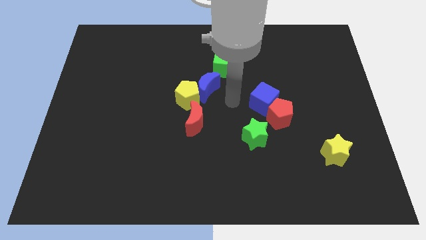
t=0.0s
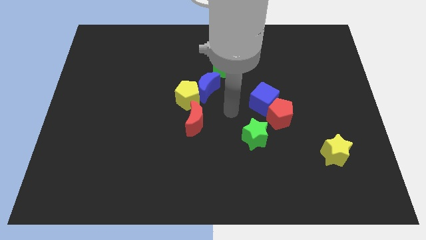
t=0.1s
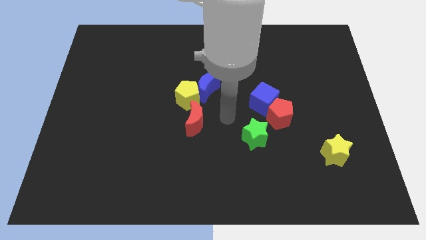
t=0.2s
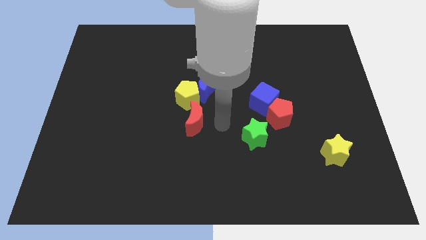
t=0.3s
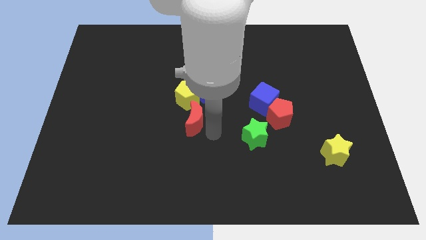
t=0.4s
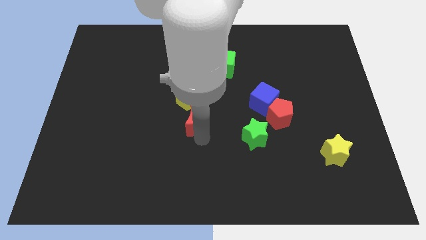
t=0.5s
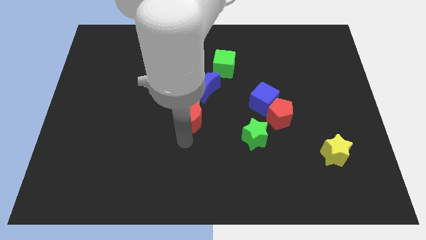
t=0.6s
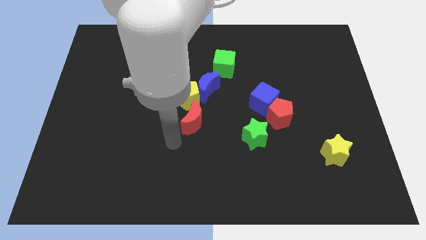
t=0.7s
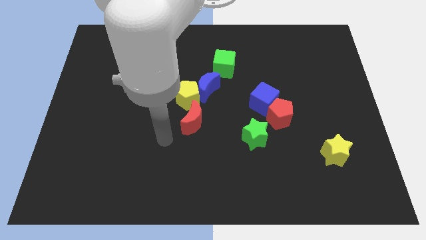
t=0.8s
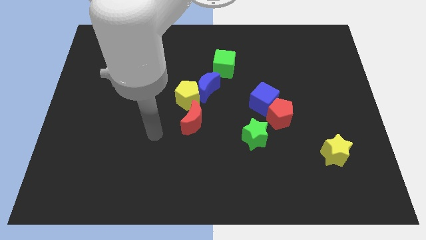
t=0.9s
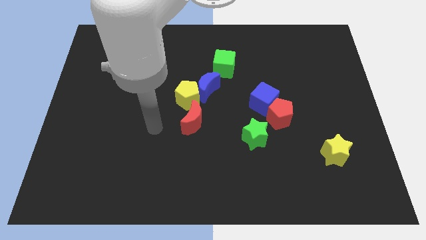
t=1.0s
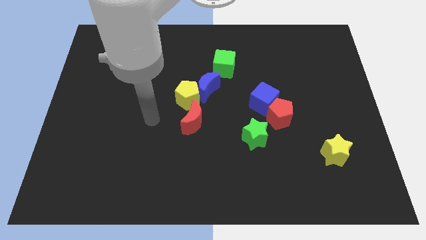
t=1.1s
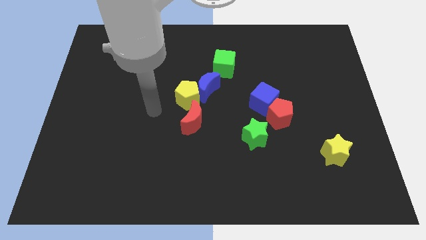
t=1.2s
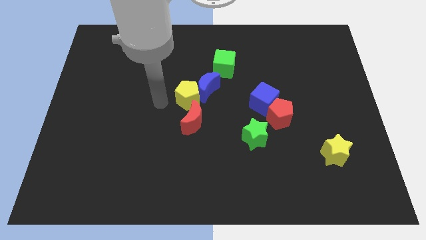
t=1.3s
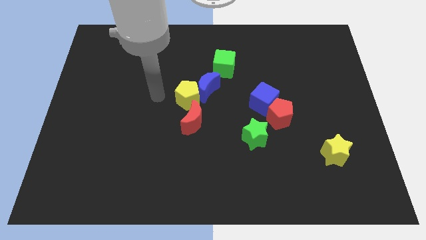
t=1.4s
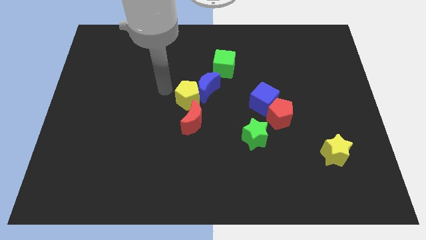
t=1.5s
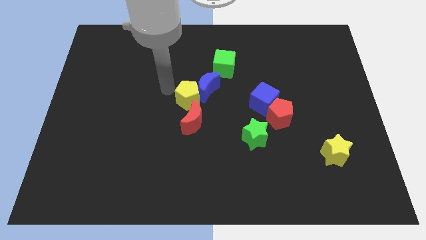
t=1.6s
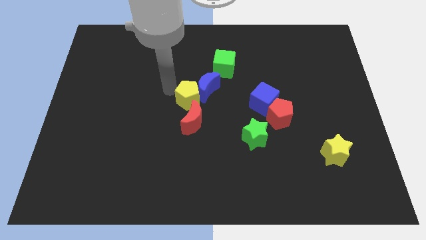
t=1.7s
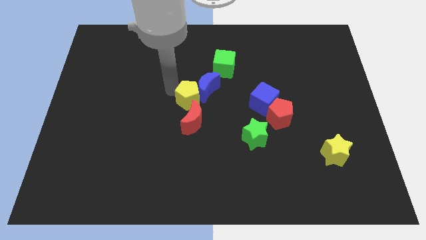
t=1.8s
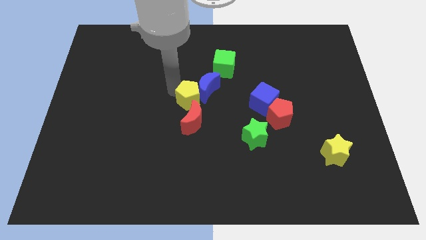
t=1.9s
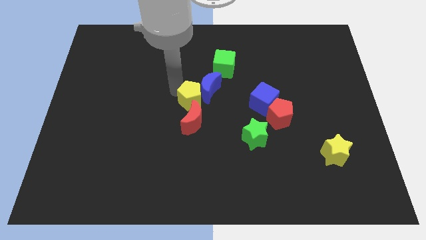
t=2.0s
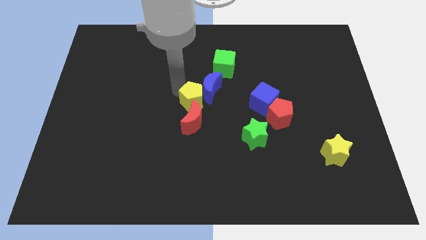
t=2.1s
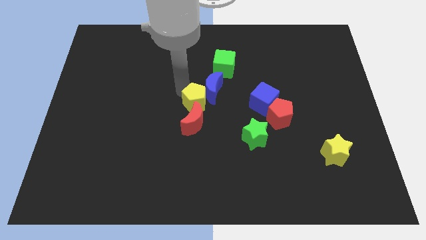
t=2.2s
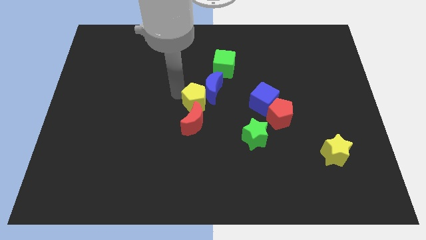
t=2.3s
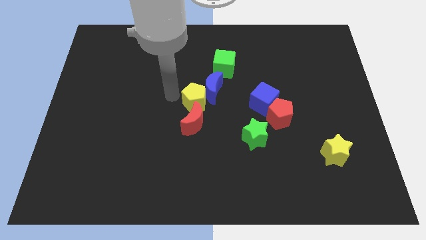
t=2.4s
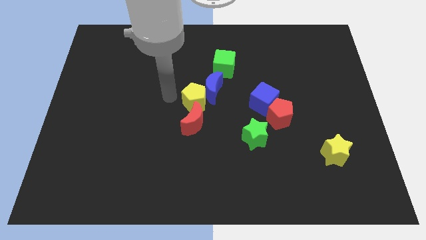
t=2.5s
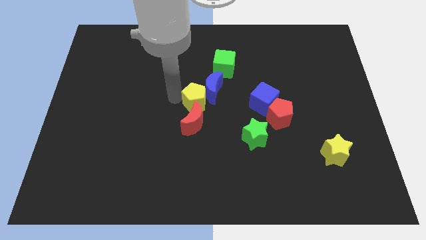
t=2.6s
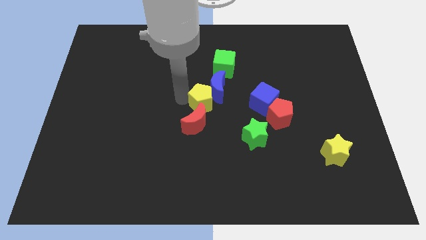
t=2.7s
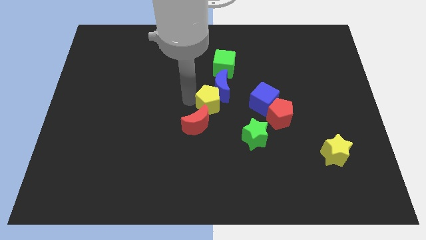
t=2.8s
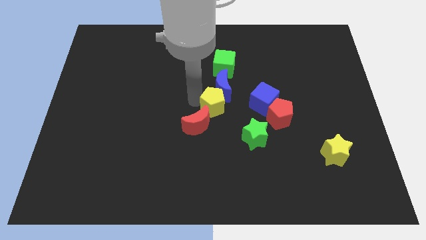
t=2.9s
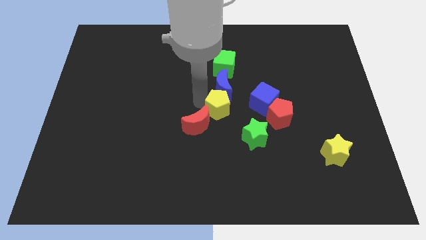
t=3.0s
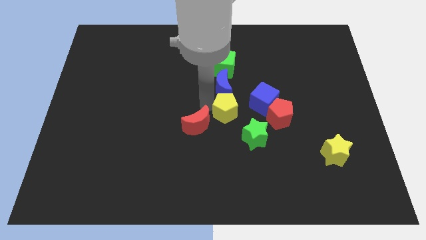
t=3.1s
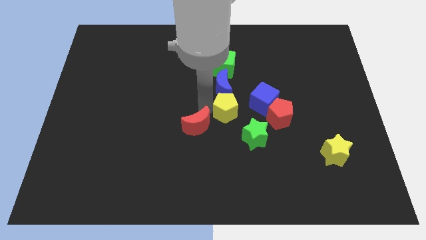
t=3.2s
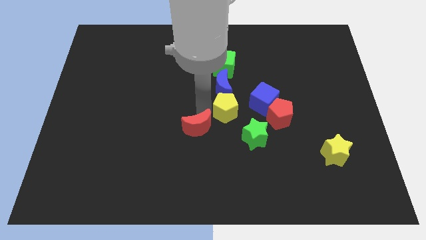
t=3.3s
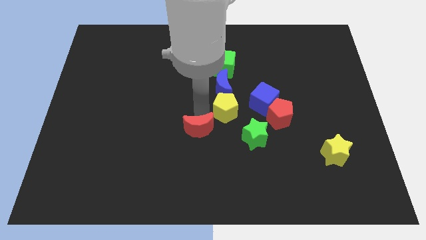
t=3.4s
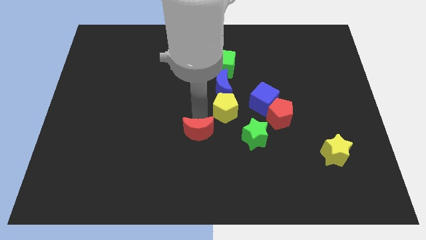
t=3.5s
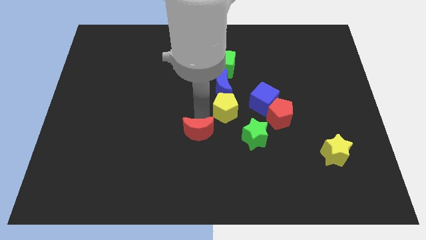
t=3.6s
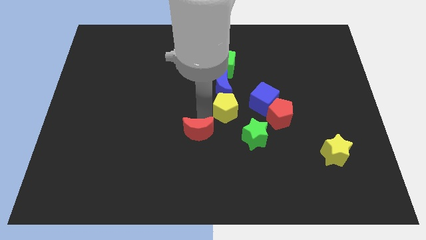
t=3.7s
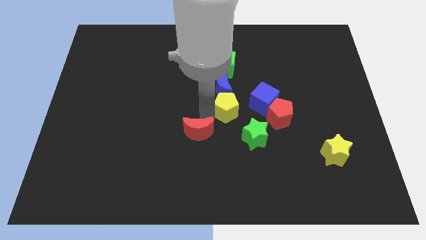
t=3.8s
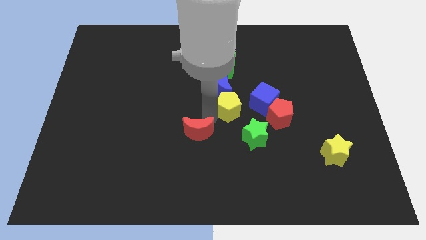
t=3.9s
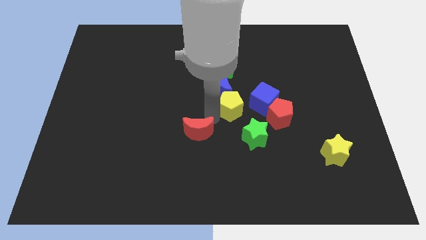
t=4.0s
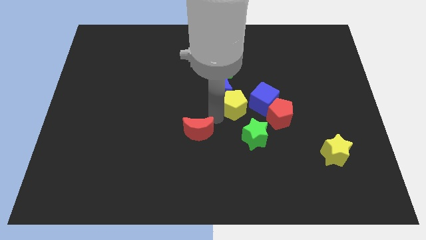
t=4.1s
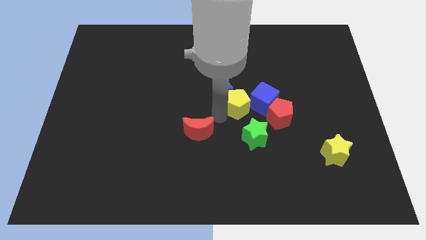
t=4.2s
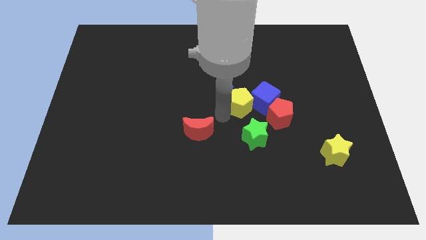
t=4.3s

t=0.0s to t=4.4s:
move the yellow pentagon next to the blue cube

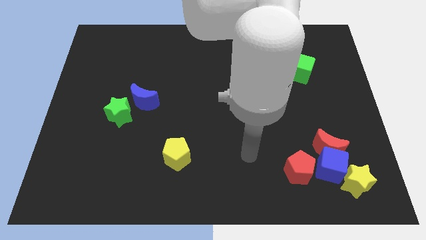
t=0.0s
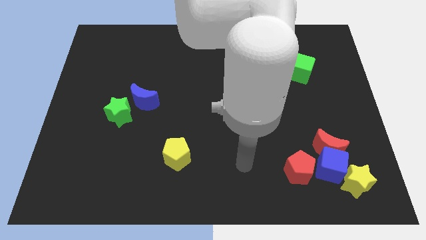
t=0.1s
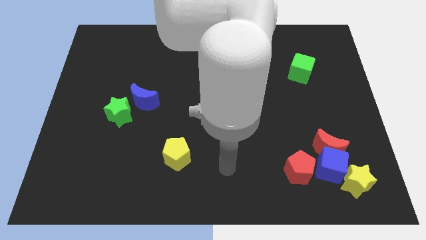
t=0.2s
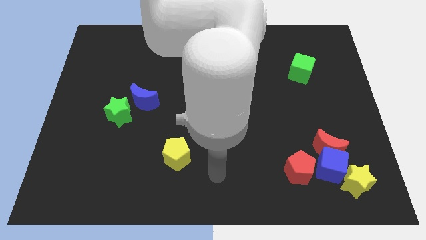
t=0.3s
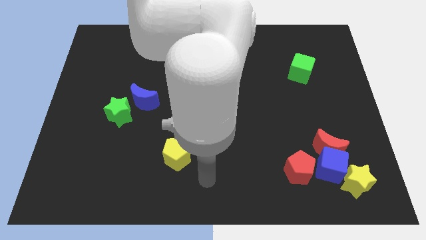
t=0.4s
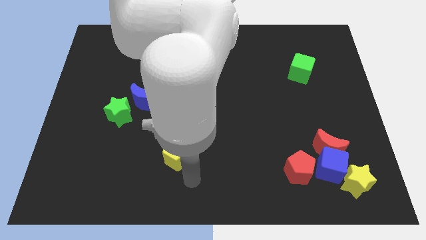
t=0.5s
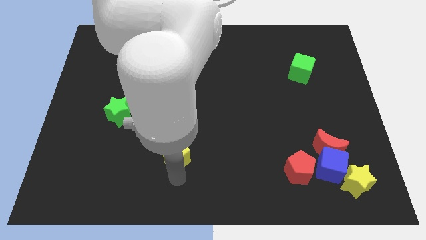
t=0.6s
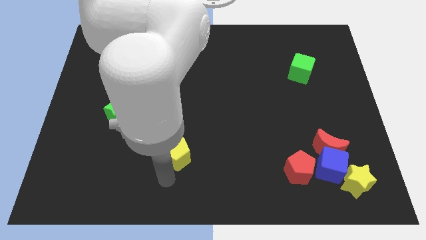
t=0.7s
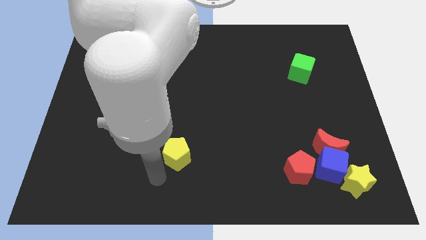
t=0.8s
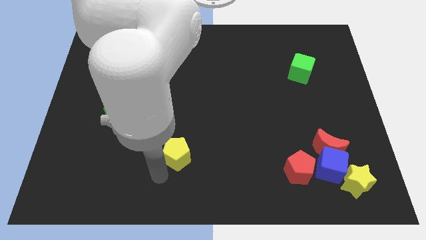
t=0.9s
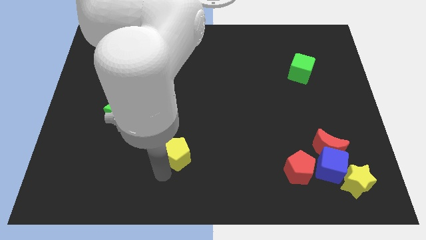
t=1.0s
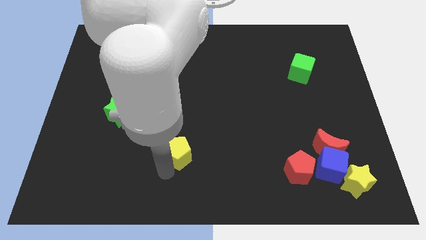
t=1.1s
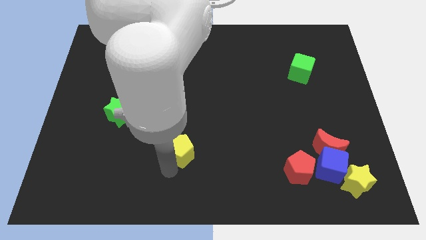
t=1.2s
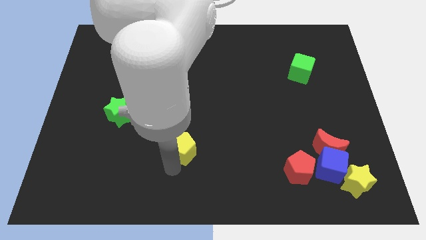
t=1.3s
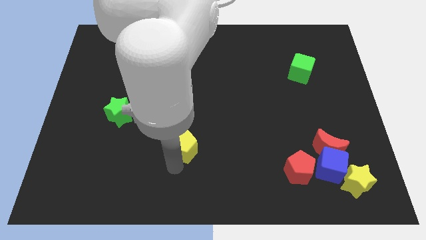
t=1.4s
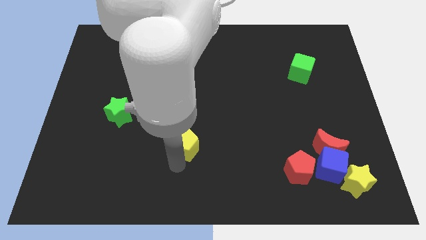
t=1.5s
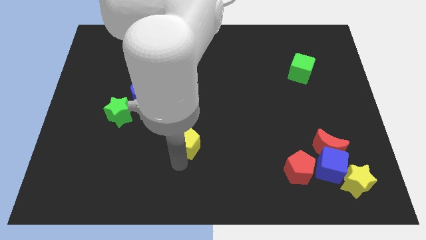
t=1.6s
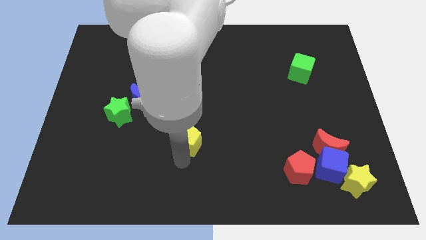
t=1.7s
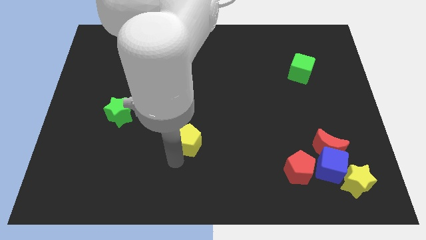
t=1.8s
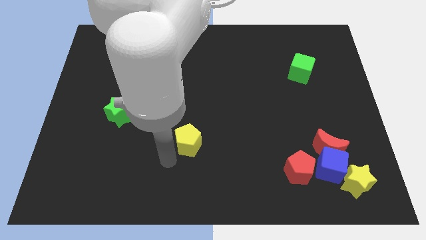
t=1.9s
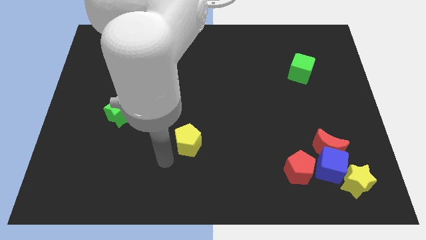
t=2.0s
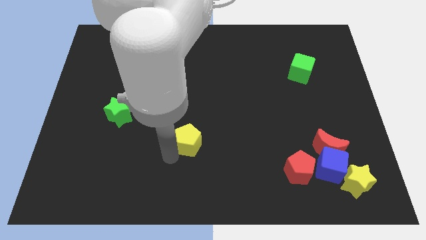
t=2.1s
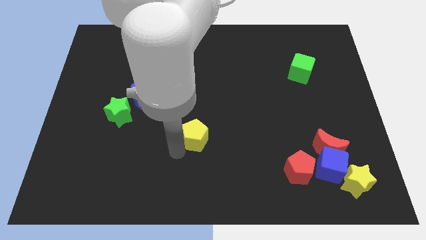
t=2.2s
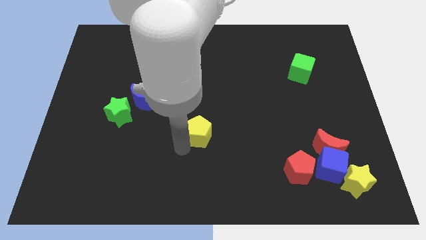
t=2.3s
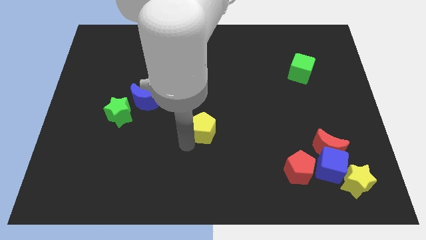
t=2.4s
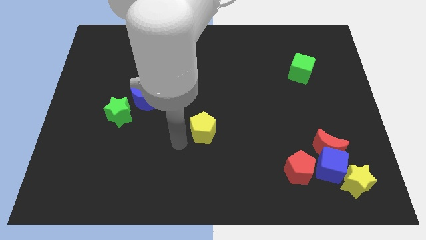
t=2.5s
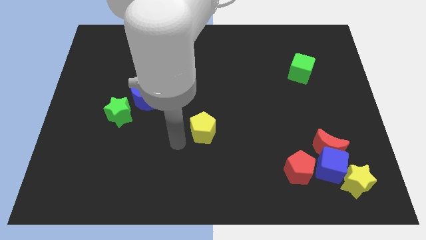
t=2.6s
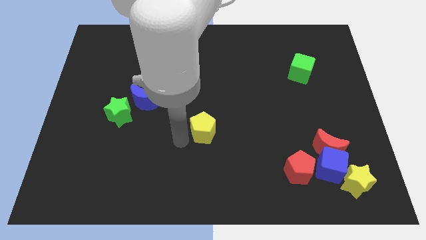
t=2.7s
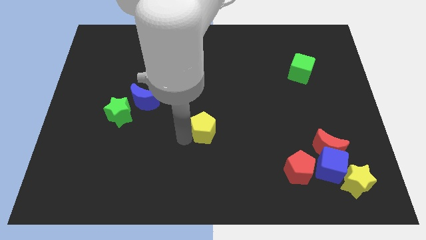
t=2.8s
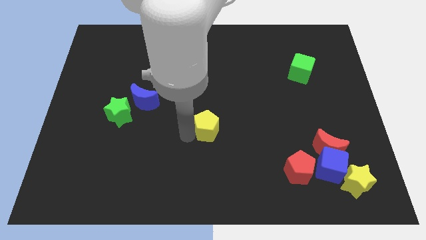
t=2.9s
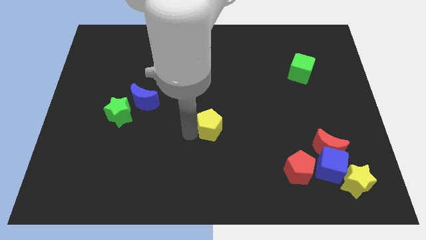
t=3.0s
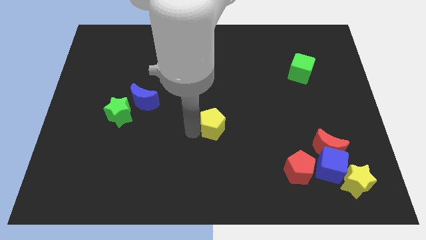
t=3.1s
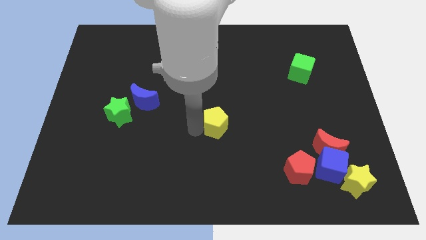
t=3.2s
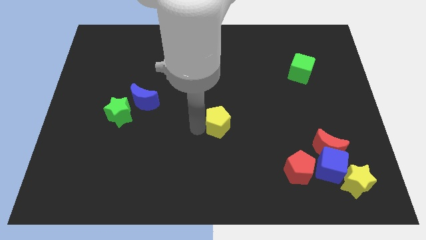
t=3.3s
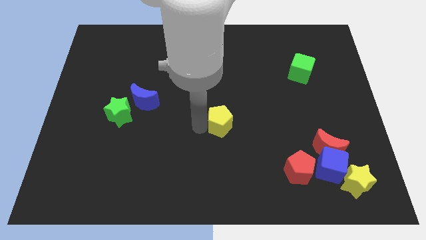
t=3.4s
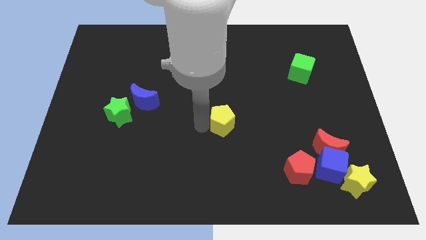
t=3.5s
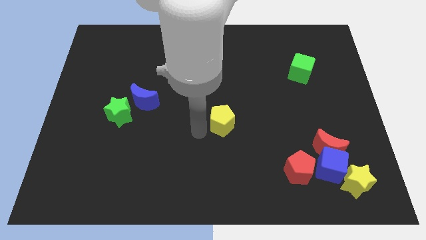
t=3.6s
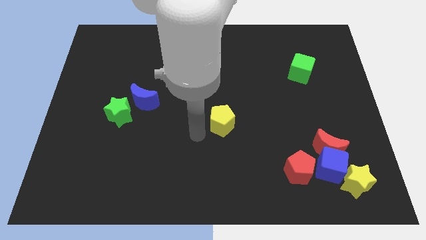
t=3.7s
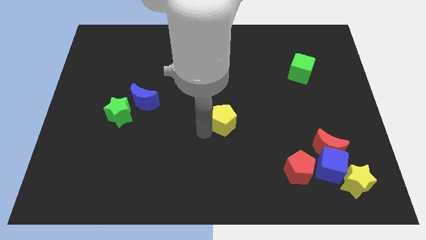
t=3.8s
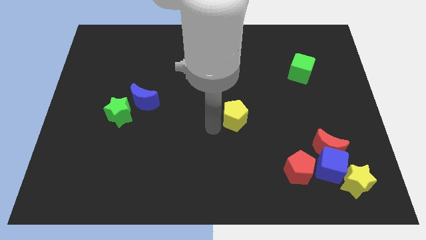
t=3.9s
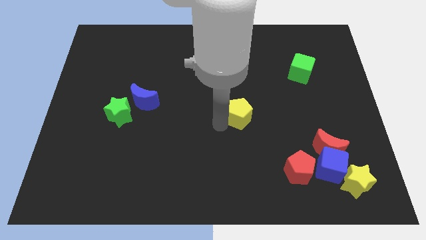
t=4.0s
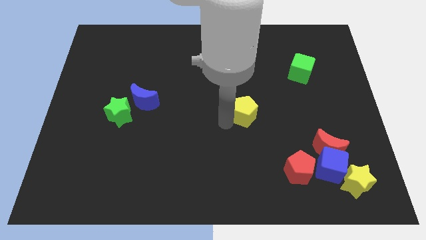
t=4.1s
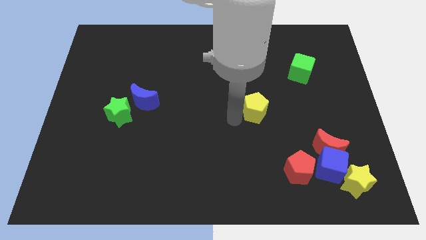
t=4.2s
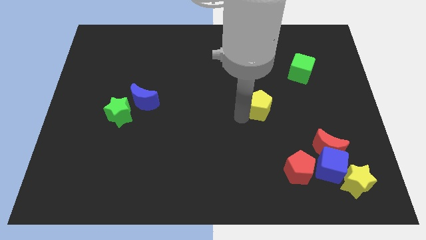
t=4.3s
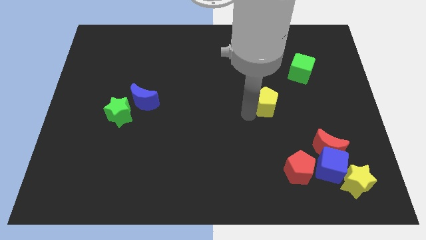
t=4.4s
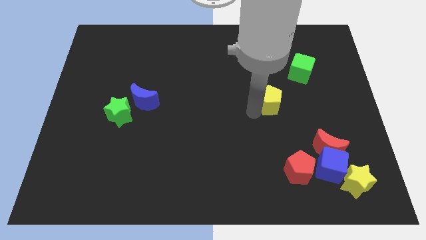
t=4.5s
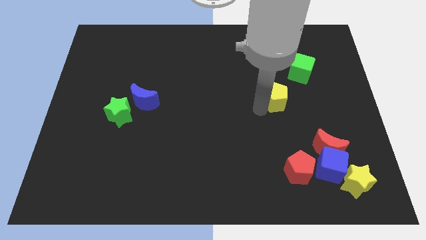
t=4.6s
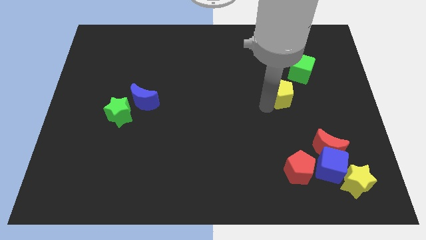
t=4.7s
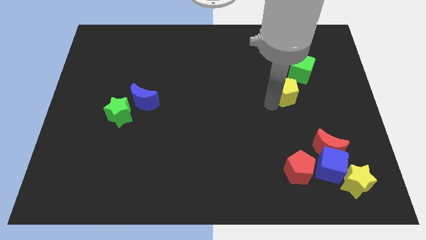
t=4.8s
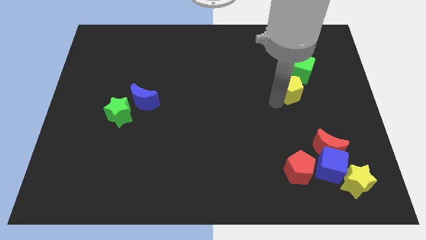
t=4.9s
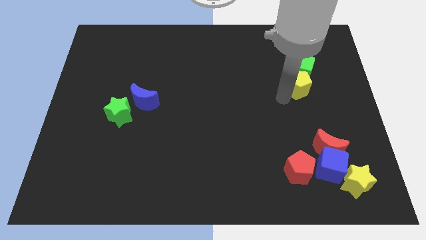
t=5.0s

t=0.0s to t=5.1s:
put the yellow pentagon to the green cube
